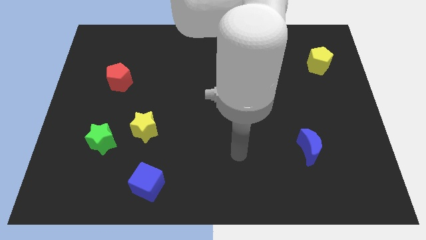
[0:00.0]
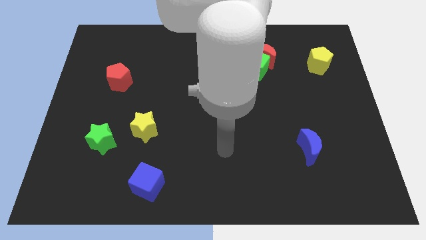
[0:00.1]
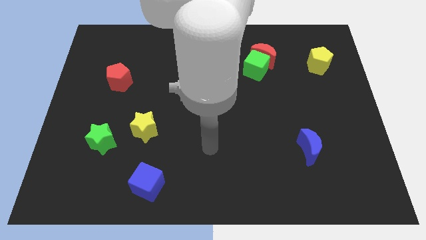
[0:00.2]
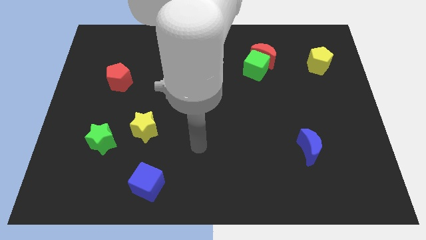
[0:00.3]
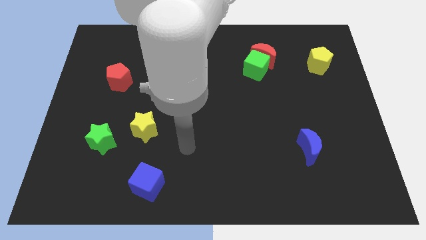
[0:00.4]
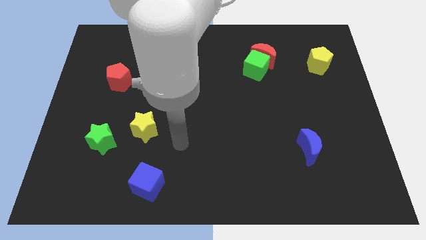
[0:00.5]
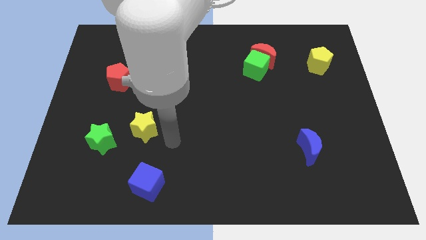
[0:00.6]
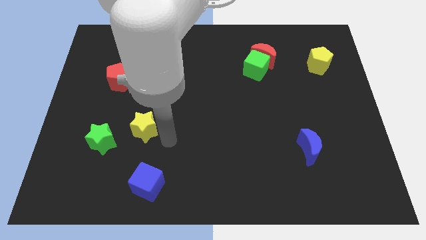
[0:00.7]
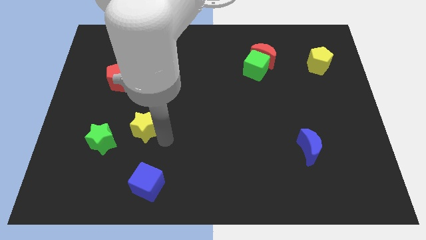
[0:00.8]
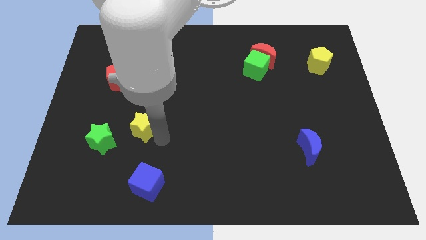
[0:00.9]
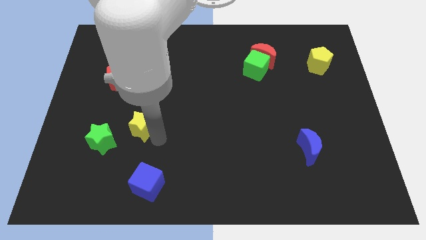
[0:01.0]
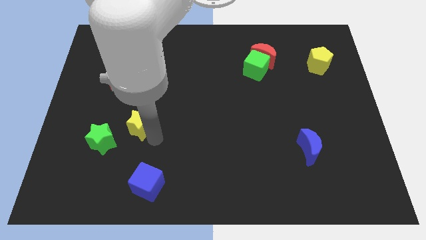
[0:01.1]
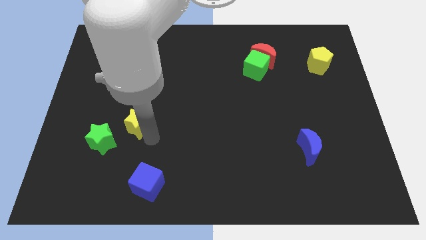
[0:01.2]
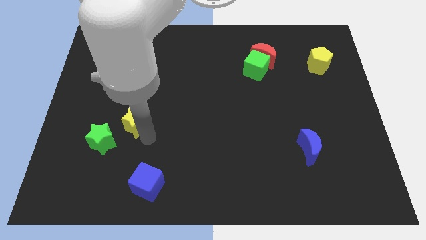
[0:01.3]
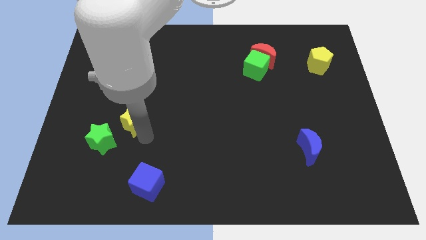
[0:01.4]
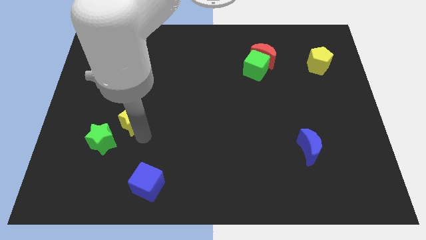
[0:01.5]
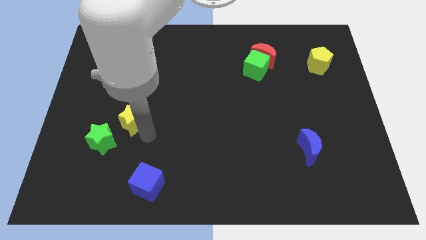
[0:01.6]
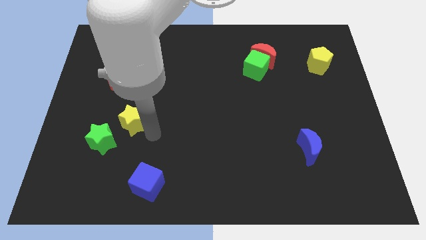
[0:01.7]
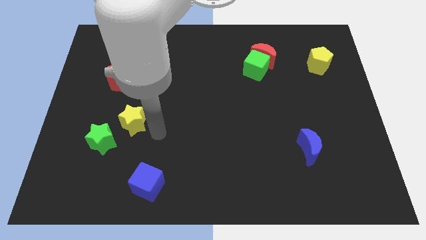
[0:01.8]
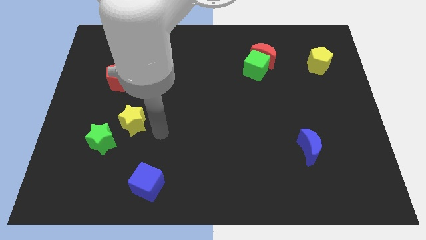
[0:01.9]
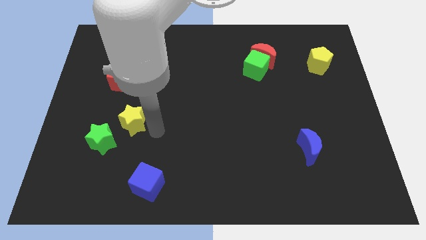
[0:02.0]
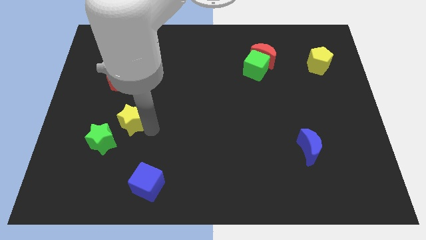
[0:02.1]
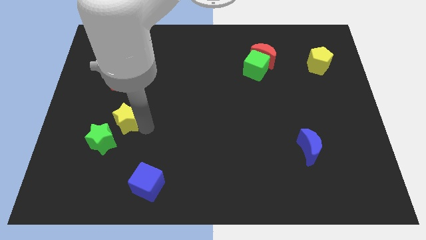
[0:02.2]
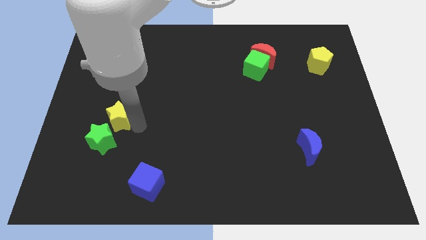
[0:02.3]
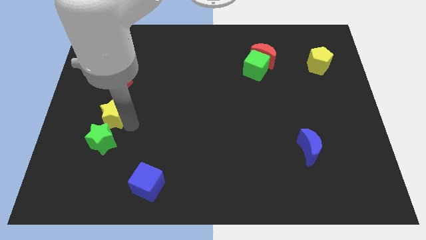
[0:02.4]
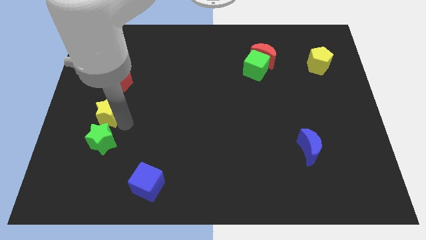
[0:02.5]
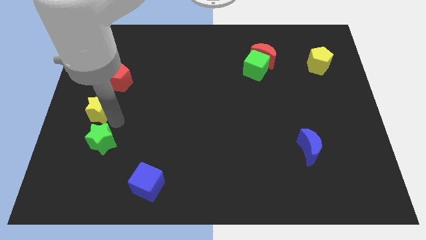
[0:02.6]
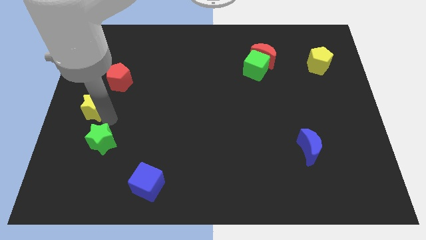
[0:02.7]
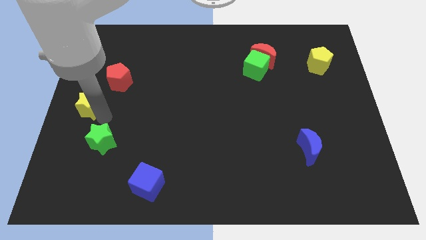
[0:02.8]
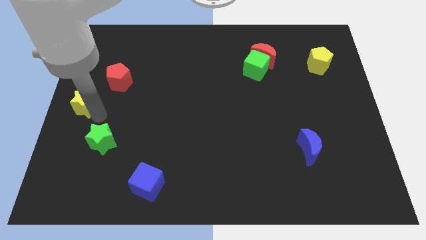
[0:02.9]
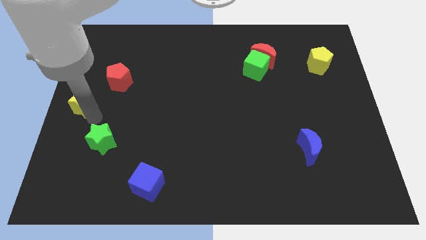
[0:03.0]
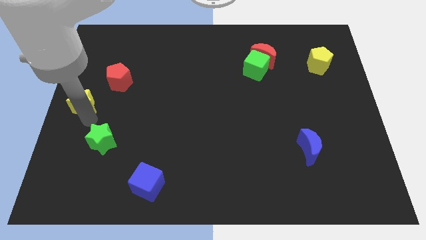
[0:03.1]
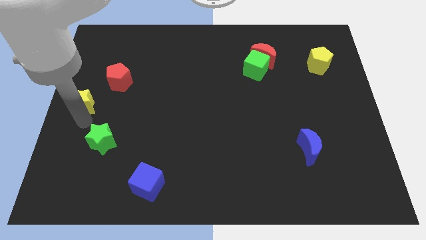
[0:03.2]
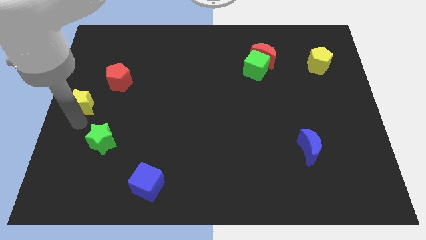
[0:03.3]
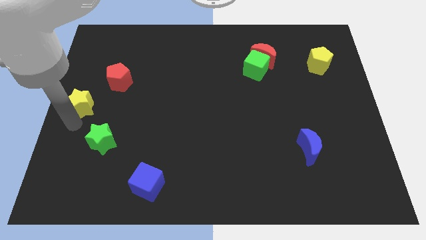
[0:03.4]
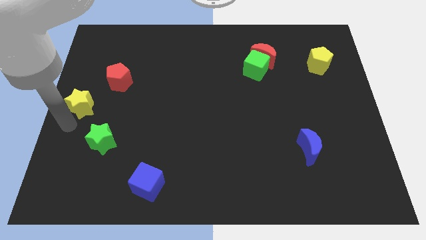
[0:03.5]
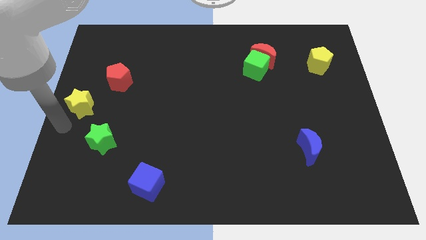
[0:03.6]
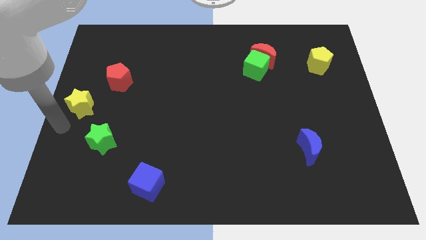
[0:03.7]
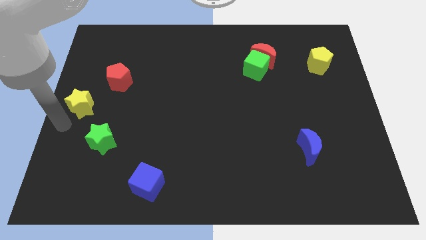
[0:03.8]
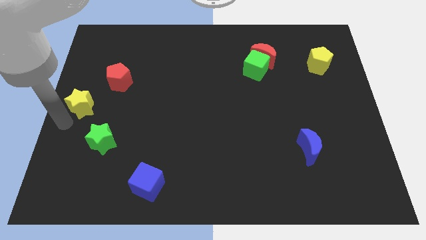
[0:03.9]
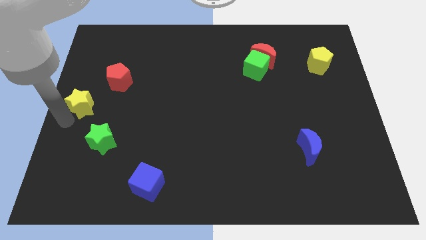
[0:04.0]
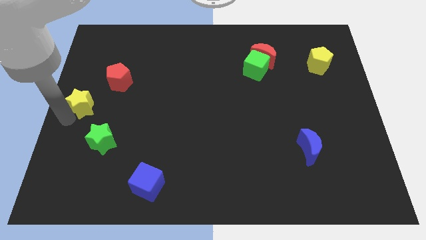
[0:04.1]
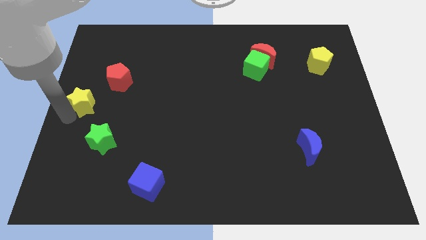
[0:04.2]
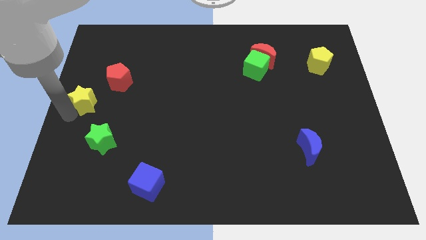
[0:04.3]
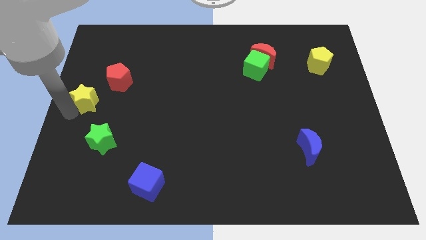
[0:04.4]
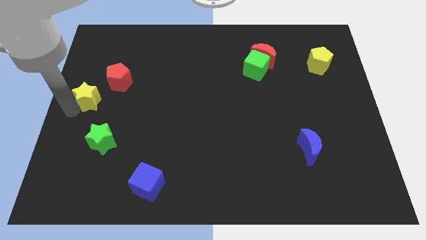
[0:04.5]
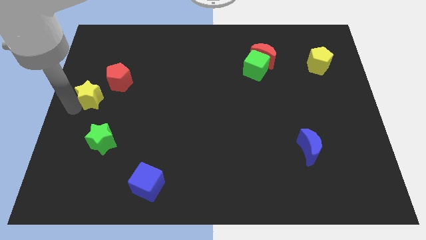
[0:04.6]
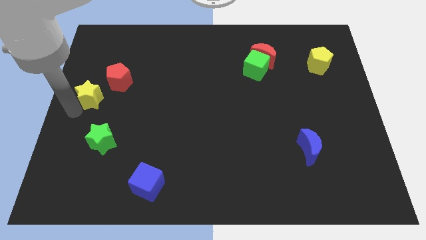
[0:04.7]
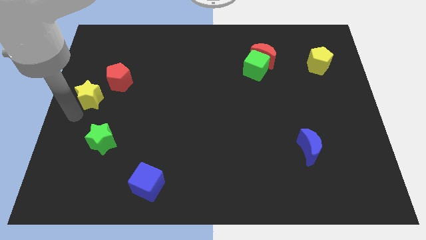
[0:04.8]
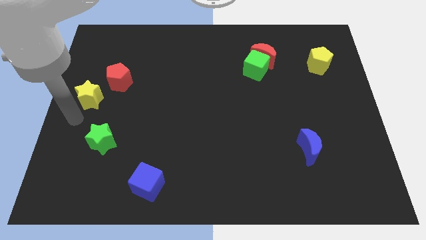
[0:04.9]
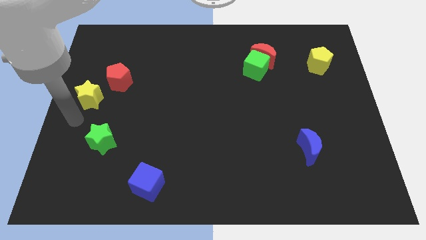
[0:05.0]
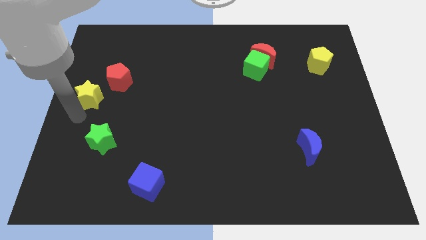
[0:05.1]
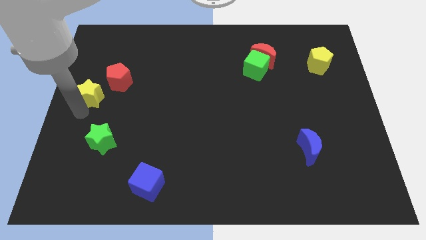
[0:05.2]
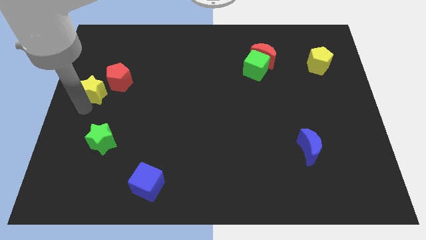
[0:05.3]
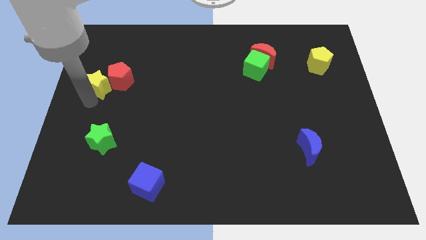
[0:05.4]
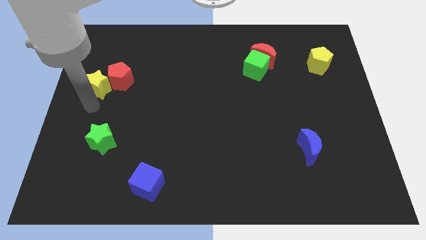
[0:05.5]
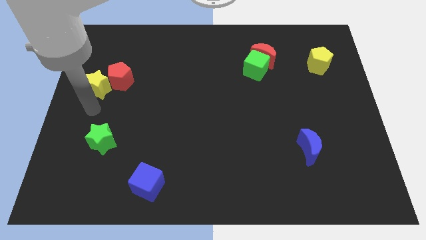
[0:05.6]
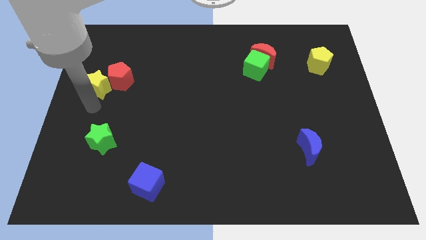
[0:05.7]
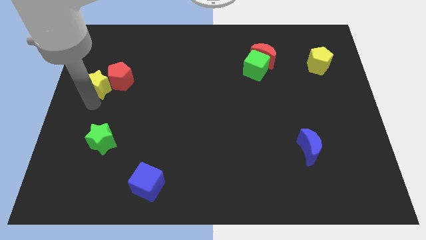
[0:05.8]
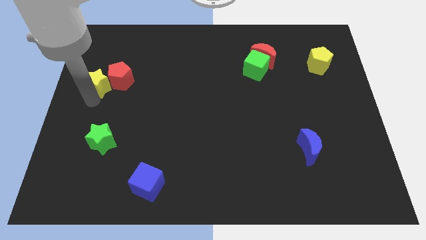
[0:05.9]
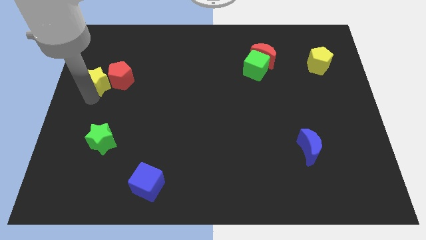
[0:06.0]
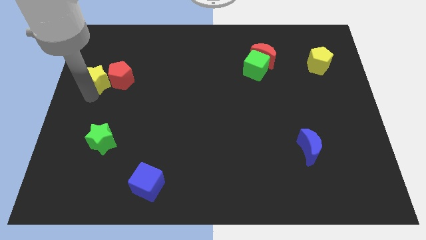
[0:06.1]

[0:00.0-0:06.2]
push the yellow star to the top left of the red pentagon

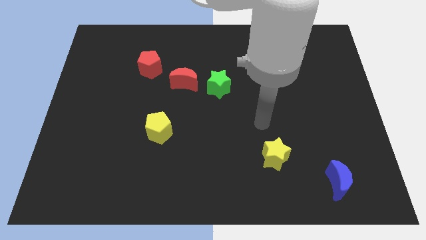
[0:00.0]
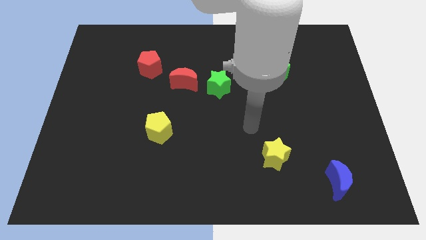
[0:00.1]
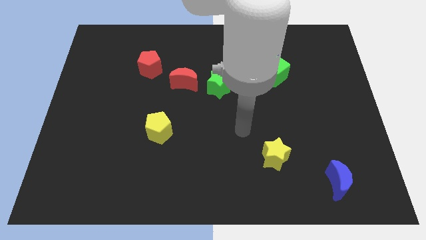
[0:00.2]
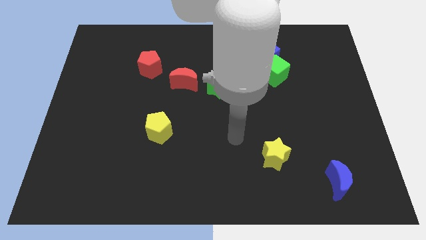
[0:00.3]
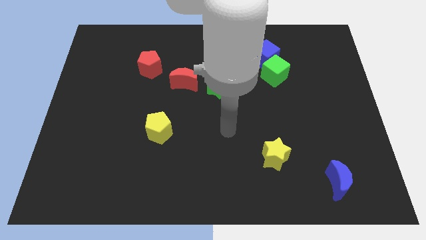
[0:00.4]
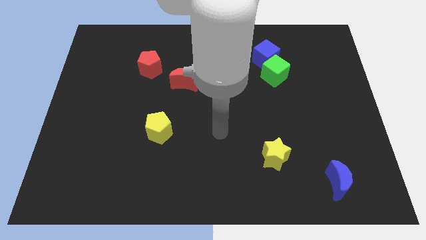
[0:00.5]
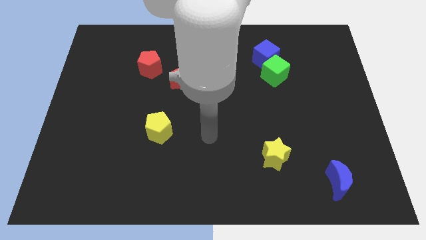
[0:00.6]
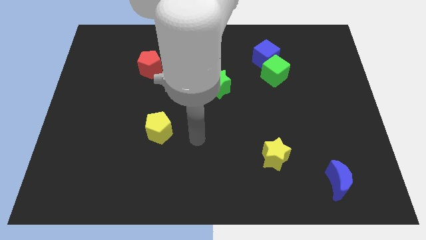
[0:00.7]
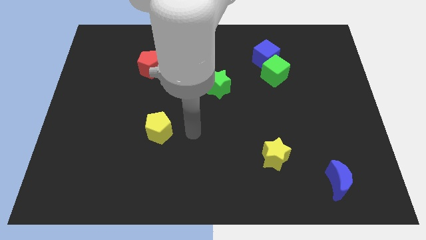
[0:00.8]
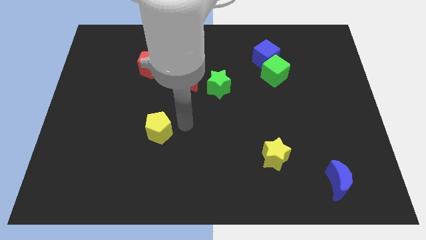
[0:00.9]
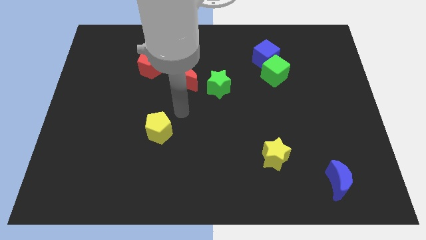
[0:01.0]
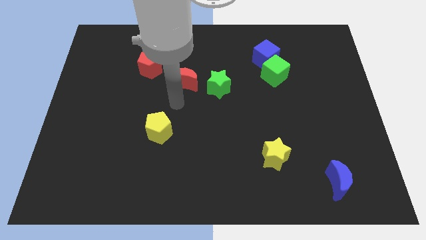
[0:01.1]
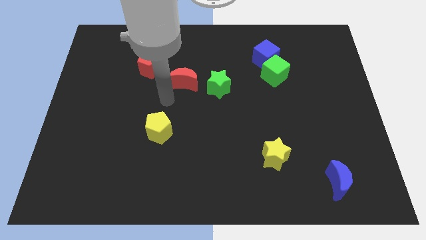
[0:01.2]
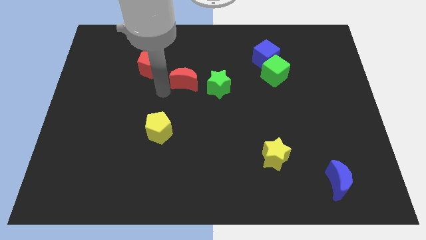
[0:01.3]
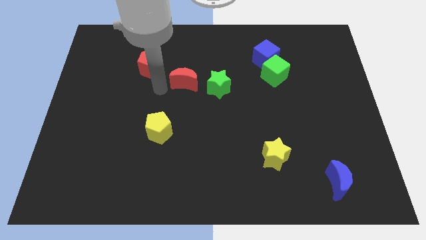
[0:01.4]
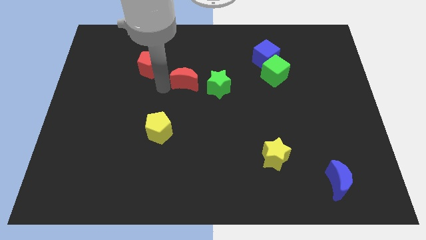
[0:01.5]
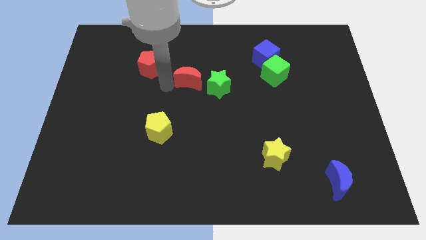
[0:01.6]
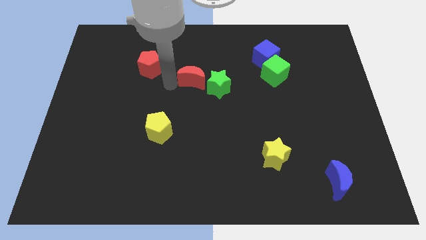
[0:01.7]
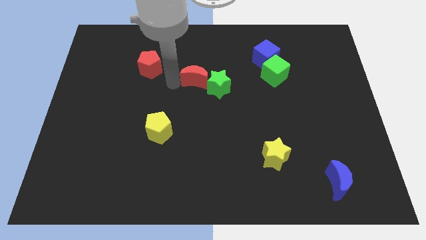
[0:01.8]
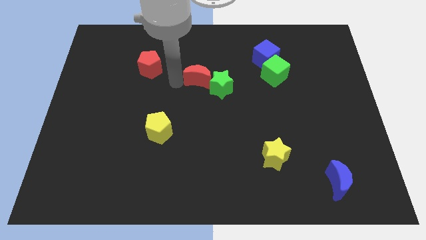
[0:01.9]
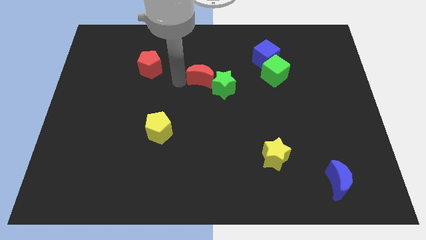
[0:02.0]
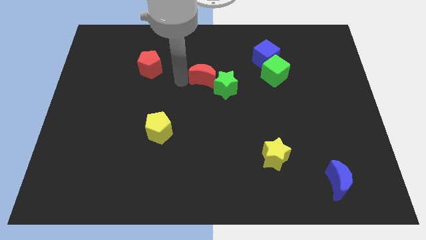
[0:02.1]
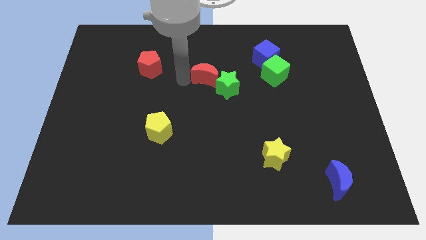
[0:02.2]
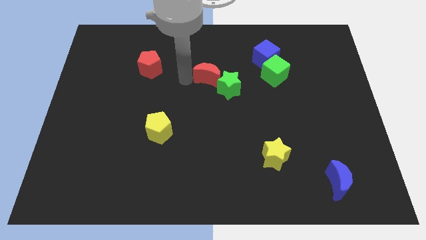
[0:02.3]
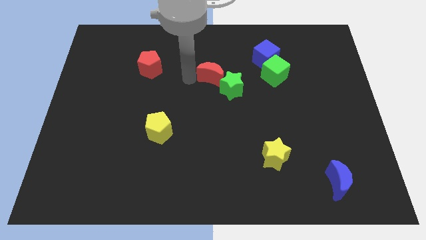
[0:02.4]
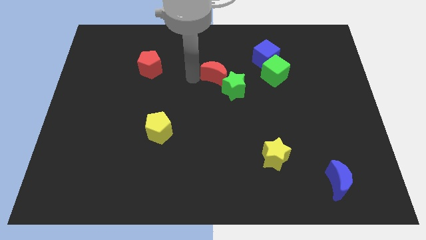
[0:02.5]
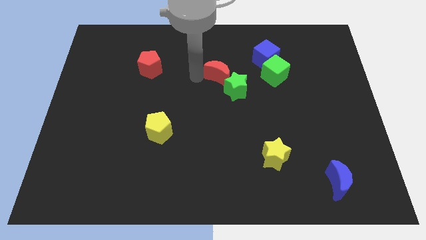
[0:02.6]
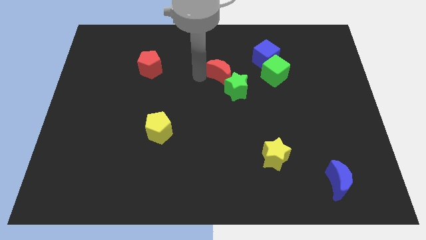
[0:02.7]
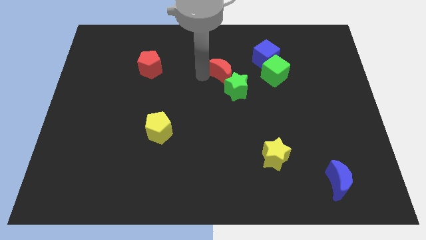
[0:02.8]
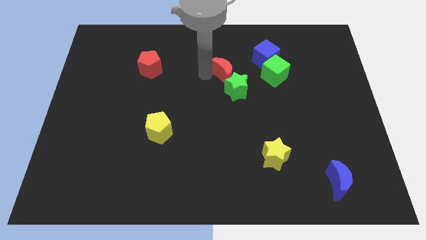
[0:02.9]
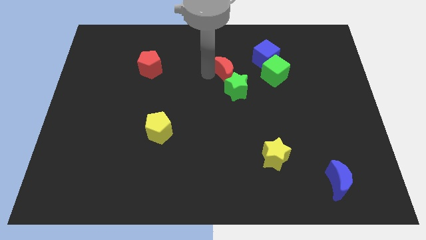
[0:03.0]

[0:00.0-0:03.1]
put the red moon to the bottom left side of the blue cube
